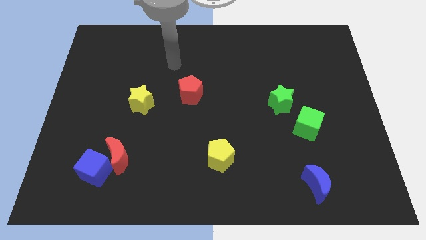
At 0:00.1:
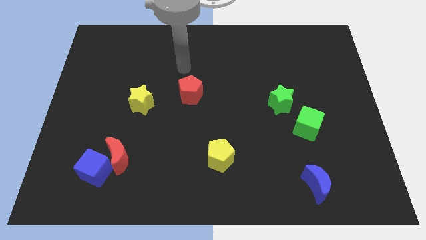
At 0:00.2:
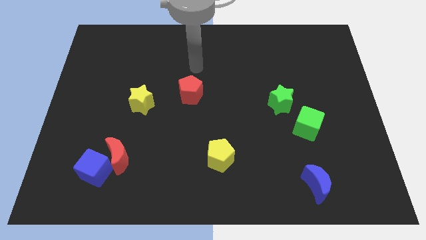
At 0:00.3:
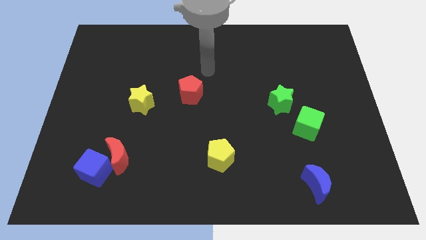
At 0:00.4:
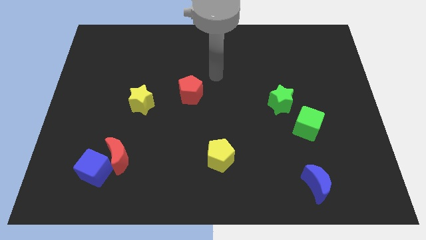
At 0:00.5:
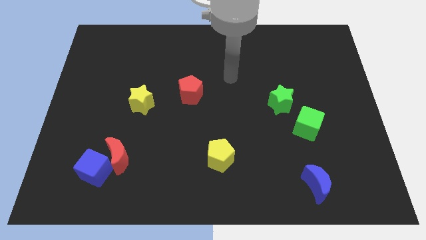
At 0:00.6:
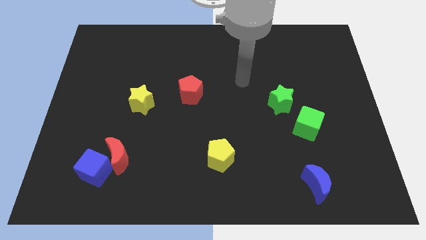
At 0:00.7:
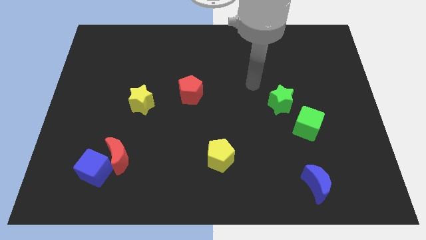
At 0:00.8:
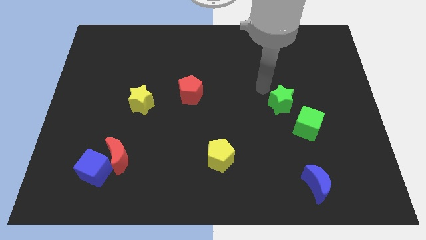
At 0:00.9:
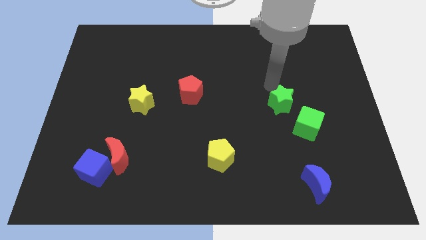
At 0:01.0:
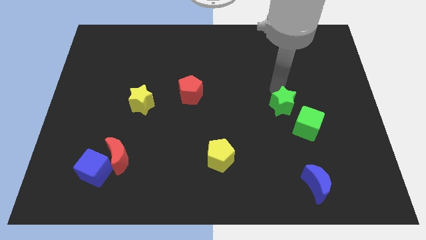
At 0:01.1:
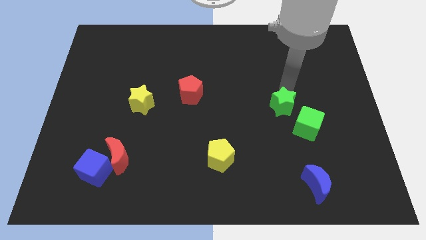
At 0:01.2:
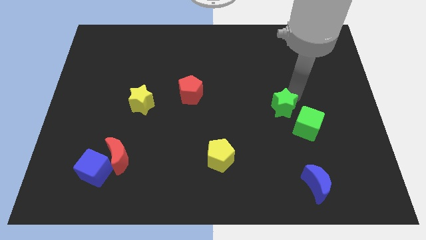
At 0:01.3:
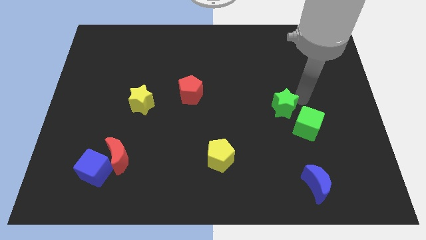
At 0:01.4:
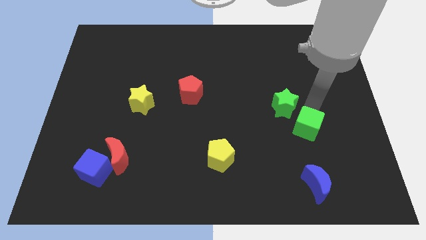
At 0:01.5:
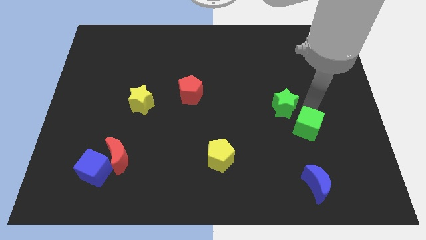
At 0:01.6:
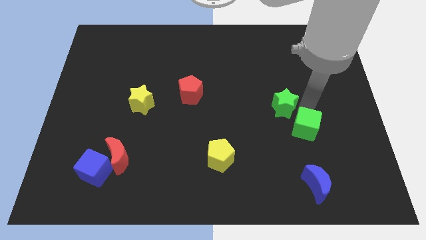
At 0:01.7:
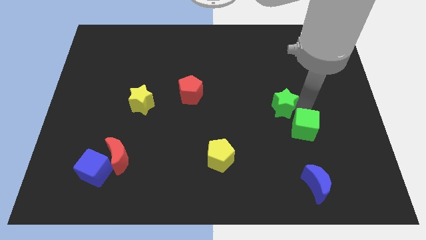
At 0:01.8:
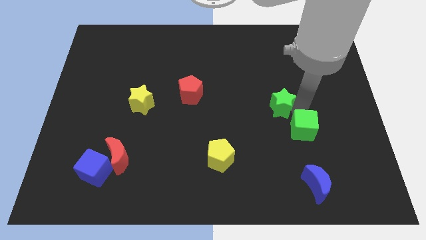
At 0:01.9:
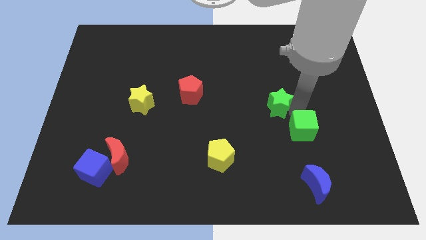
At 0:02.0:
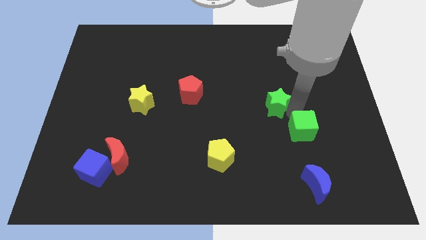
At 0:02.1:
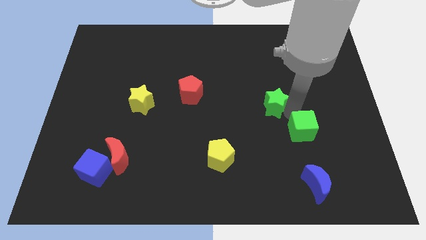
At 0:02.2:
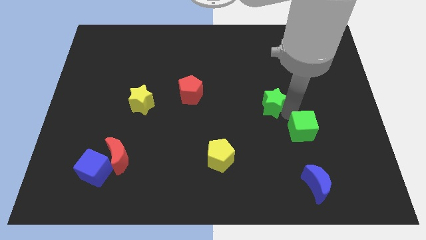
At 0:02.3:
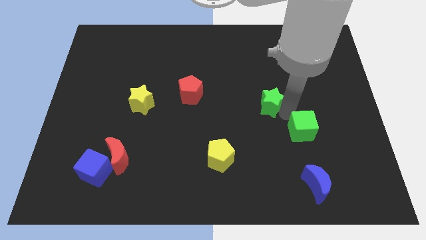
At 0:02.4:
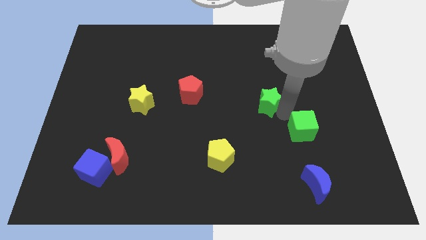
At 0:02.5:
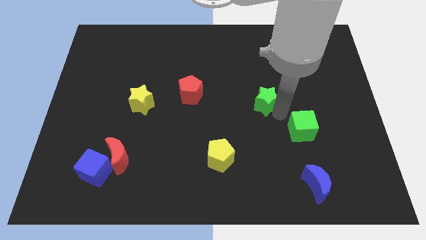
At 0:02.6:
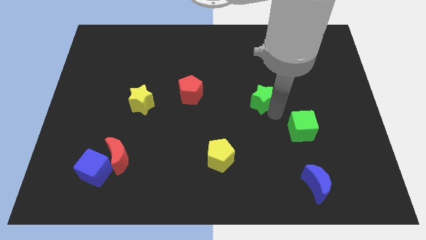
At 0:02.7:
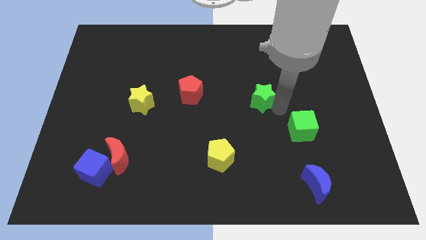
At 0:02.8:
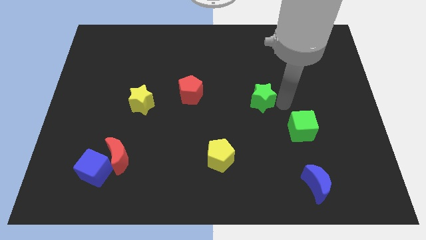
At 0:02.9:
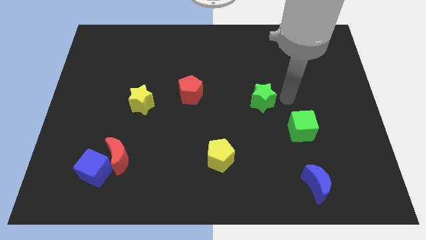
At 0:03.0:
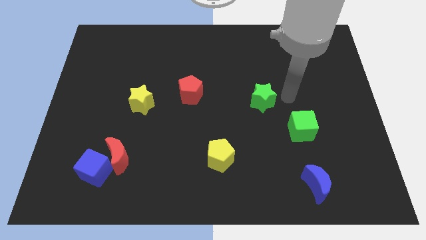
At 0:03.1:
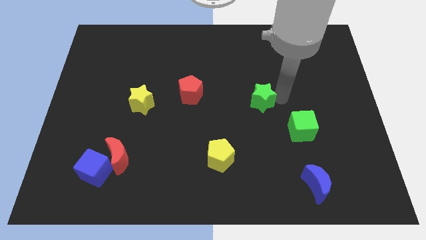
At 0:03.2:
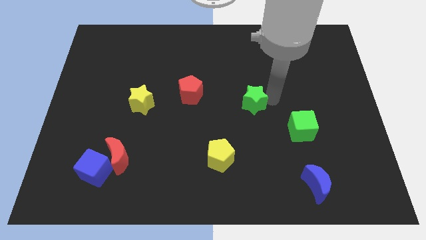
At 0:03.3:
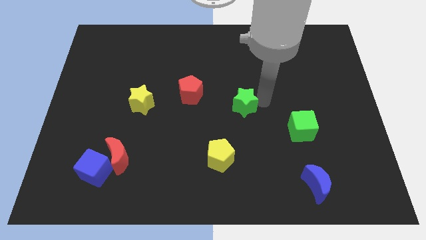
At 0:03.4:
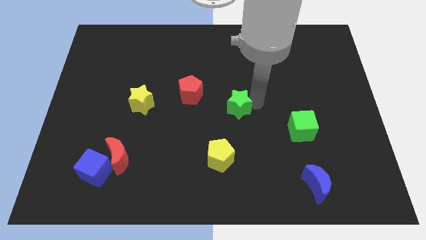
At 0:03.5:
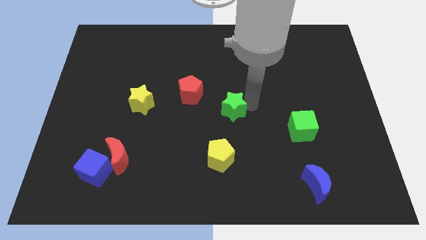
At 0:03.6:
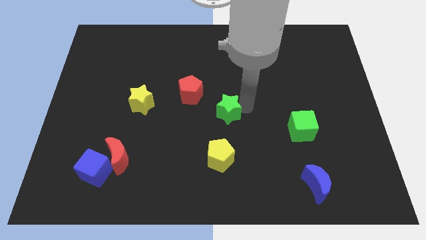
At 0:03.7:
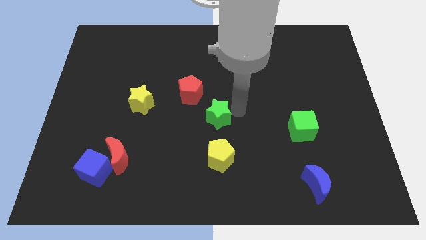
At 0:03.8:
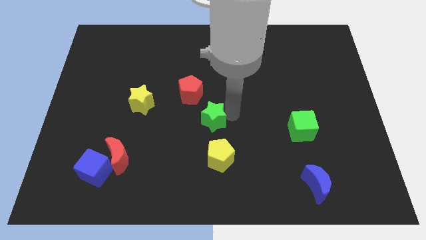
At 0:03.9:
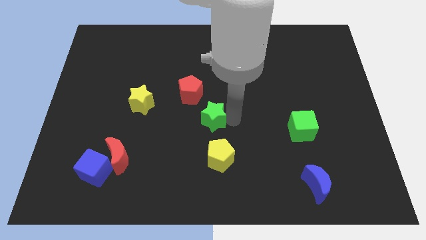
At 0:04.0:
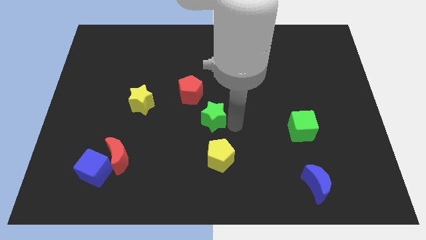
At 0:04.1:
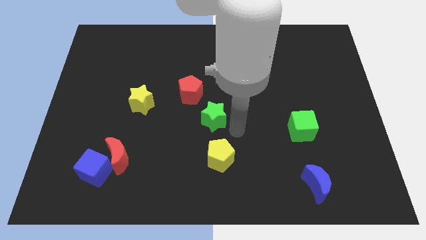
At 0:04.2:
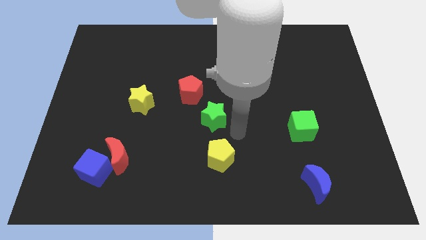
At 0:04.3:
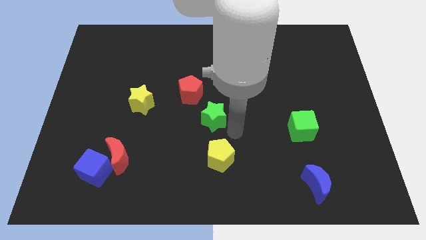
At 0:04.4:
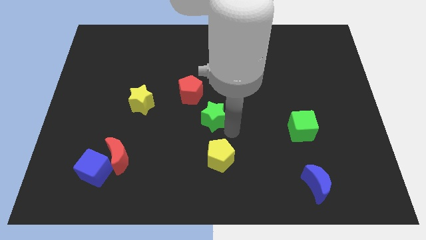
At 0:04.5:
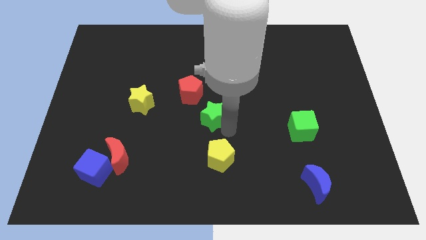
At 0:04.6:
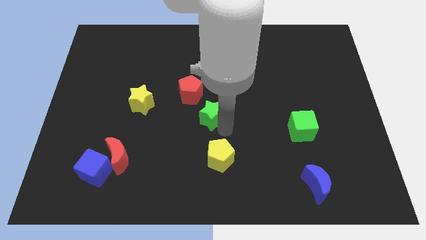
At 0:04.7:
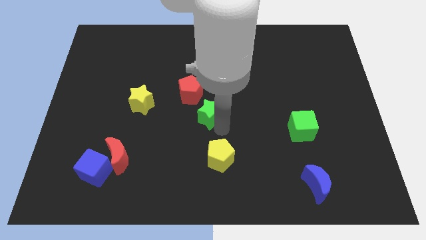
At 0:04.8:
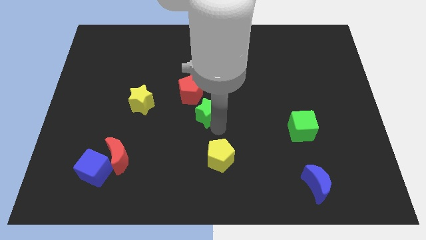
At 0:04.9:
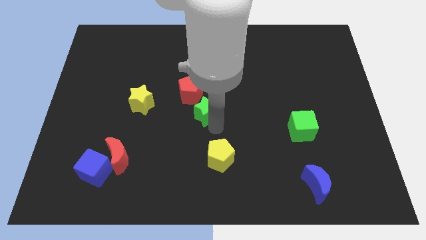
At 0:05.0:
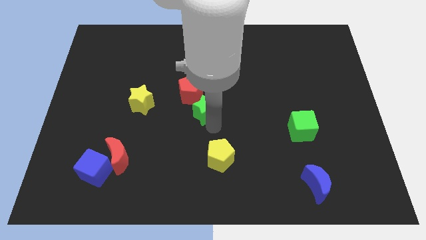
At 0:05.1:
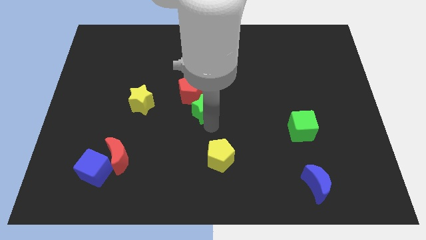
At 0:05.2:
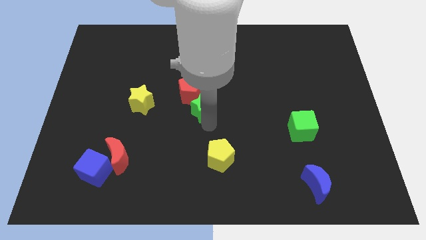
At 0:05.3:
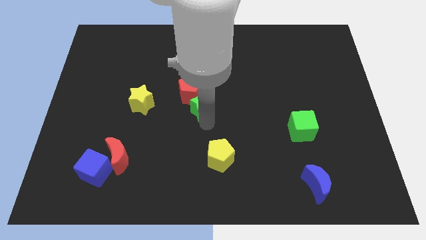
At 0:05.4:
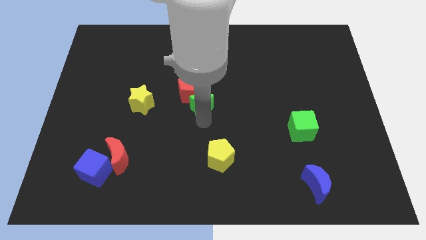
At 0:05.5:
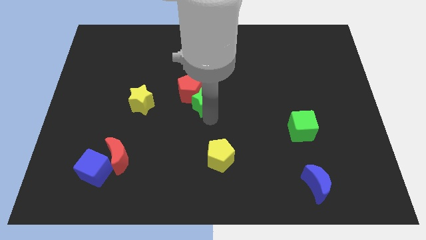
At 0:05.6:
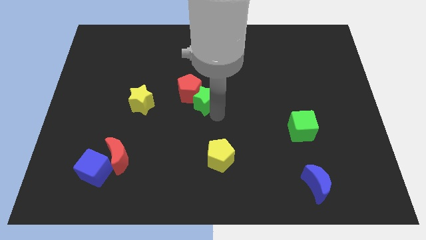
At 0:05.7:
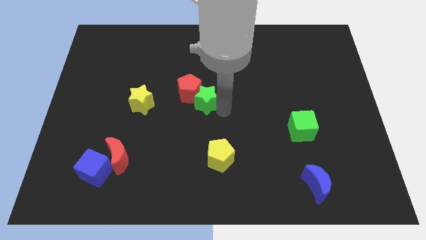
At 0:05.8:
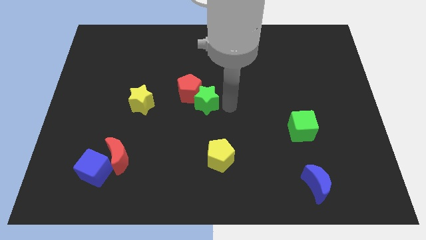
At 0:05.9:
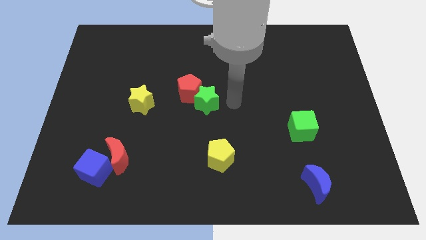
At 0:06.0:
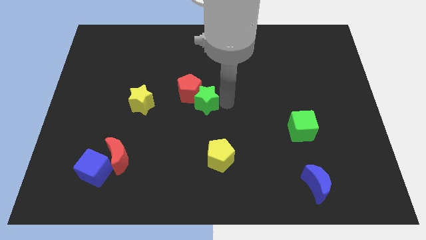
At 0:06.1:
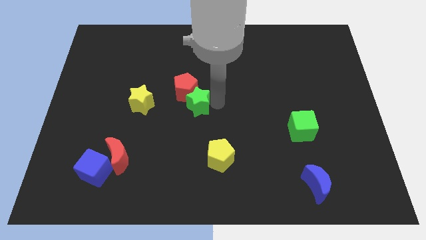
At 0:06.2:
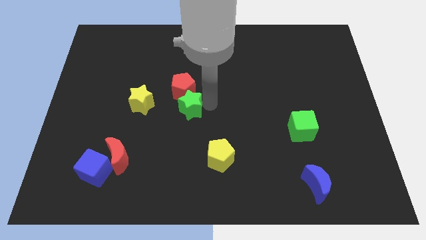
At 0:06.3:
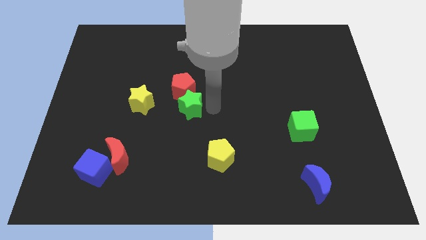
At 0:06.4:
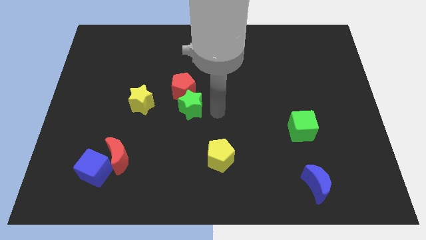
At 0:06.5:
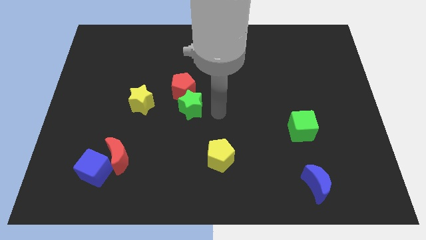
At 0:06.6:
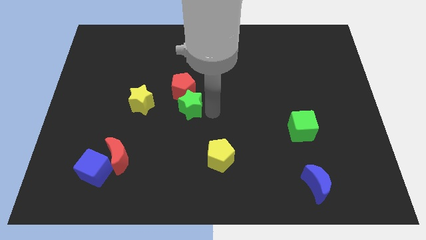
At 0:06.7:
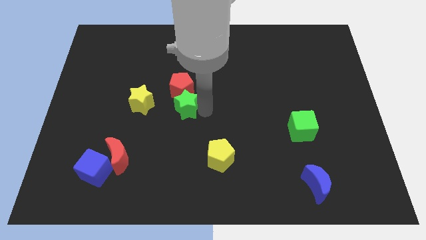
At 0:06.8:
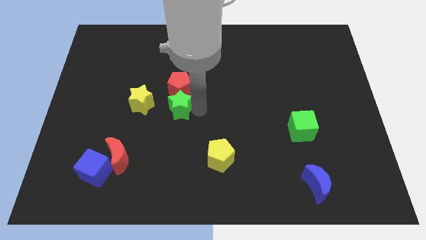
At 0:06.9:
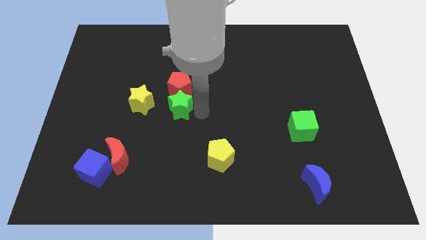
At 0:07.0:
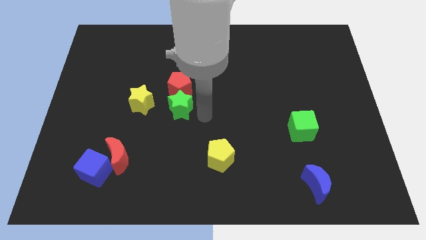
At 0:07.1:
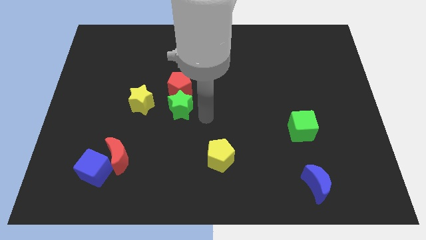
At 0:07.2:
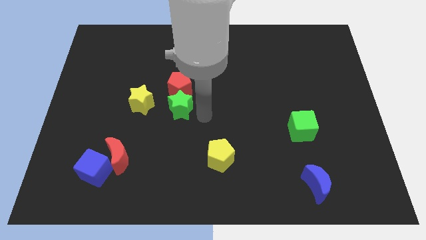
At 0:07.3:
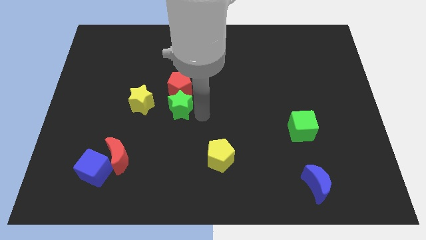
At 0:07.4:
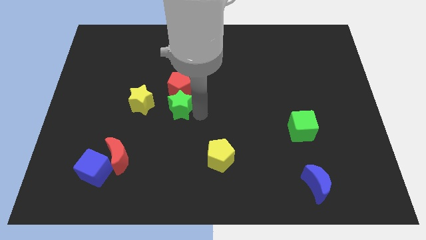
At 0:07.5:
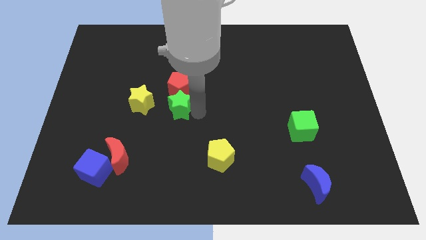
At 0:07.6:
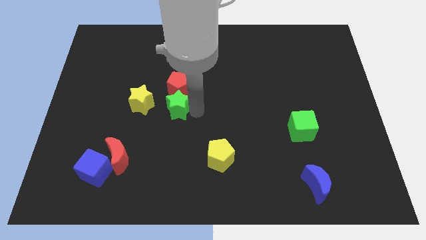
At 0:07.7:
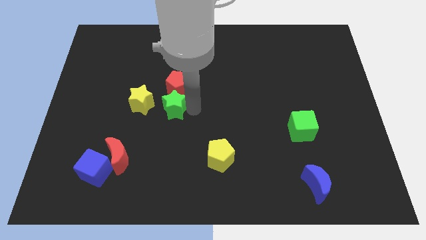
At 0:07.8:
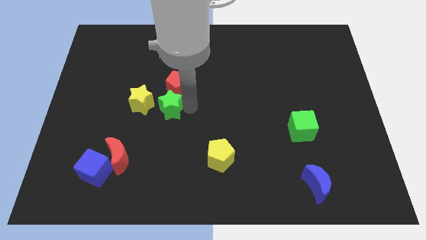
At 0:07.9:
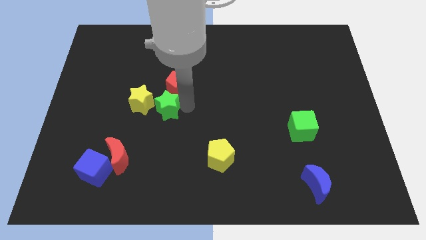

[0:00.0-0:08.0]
put the green star close to the yellow star
